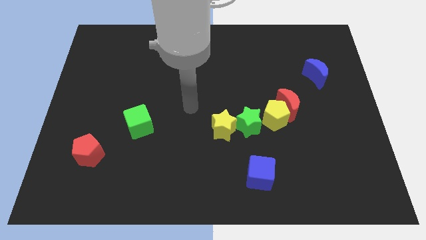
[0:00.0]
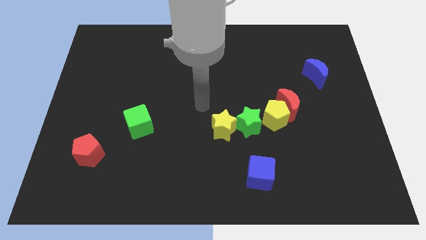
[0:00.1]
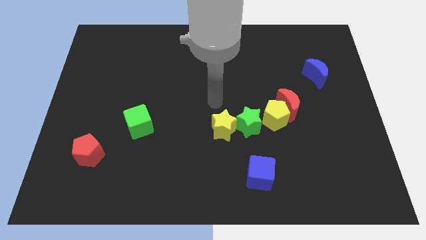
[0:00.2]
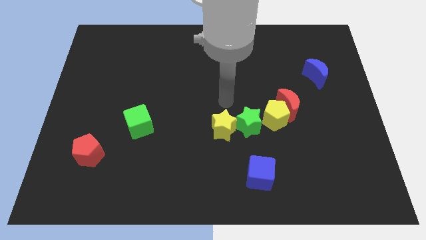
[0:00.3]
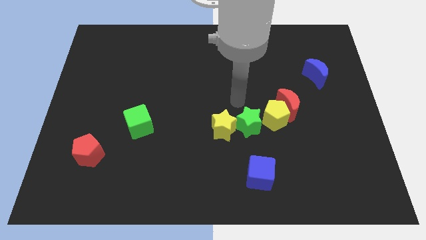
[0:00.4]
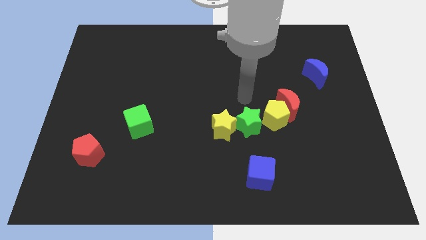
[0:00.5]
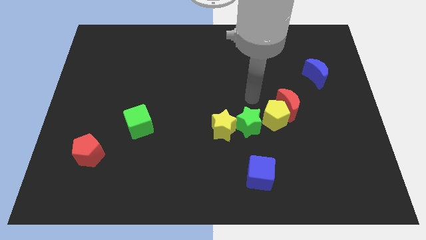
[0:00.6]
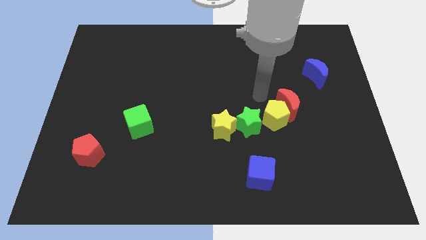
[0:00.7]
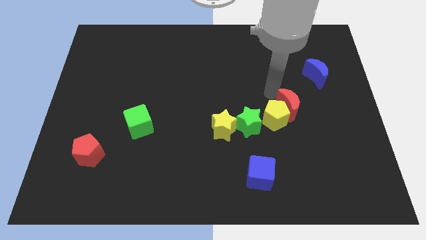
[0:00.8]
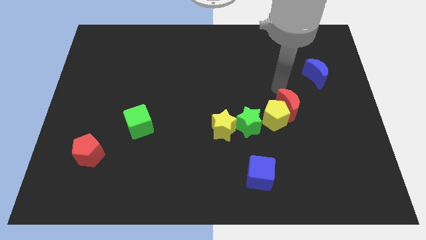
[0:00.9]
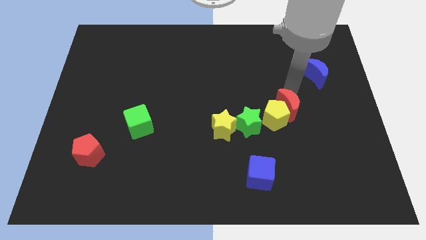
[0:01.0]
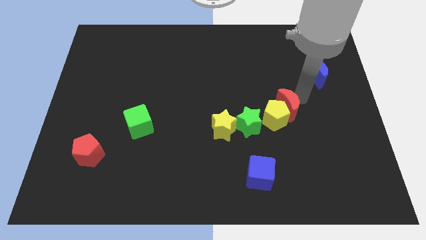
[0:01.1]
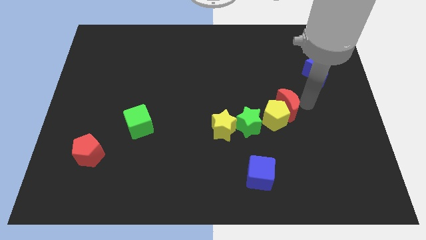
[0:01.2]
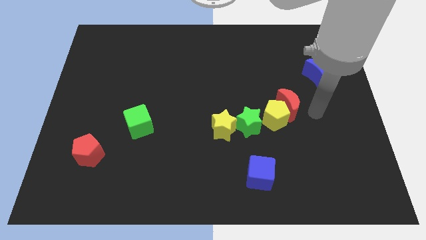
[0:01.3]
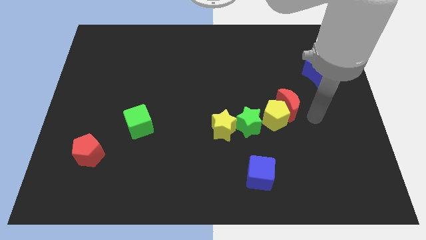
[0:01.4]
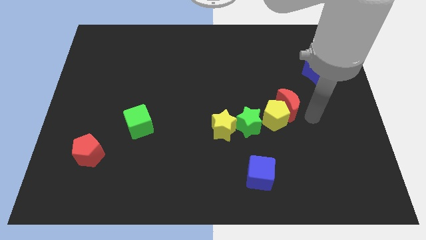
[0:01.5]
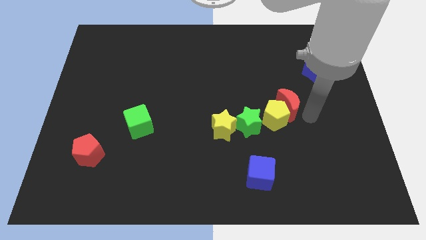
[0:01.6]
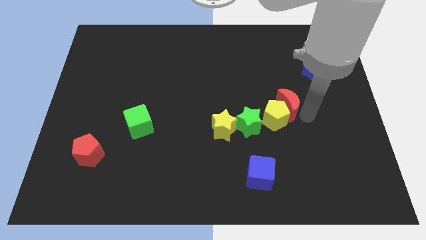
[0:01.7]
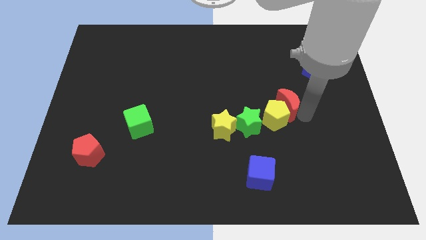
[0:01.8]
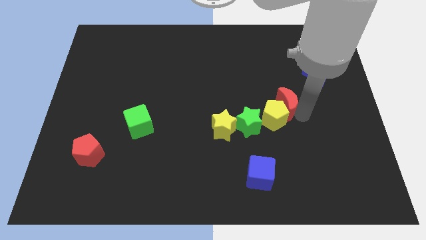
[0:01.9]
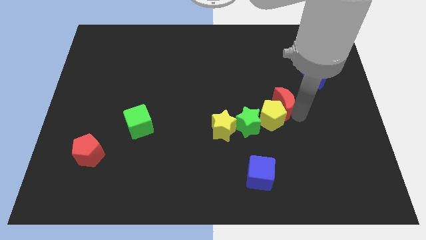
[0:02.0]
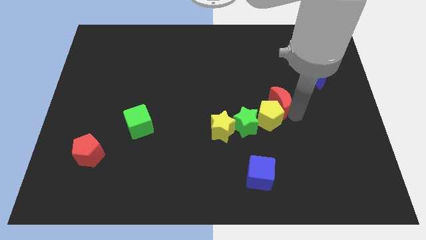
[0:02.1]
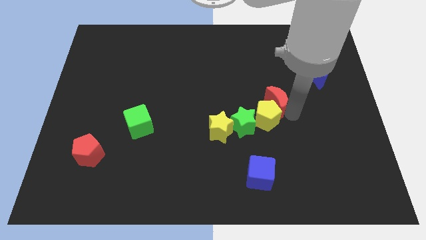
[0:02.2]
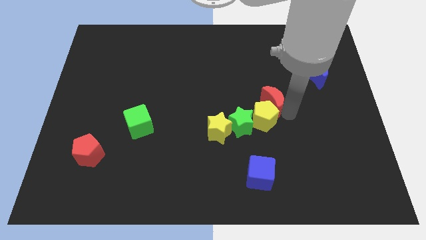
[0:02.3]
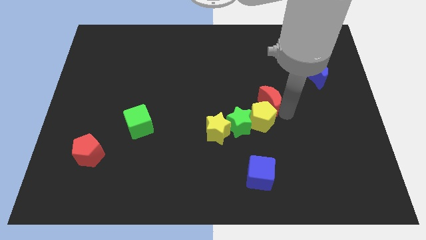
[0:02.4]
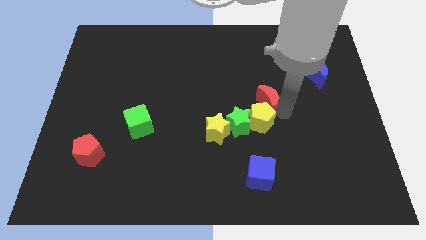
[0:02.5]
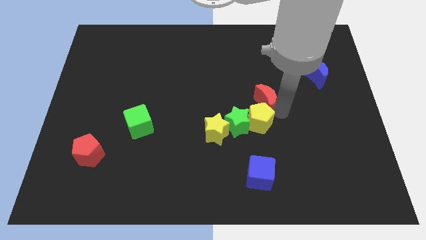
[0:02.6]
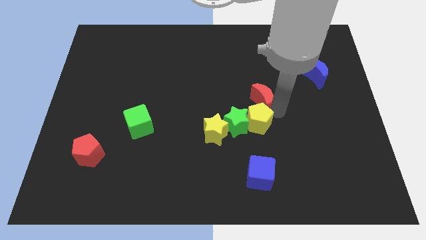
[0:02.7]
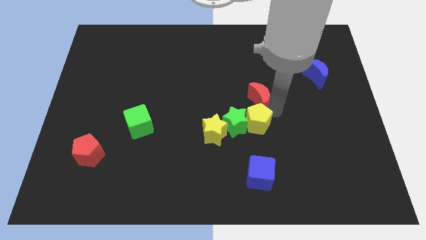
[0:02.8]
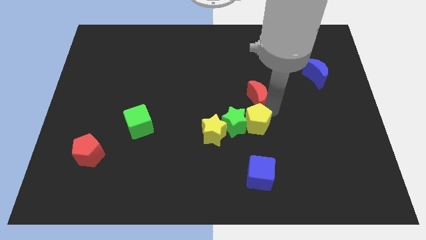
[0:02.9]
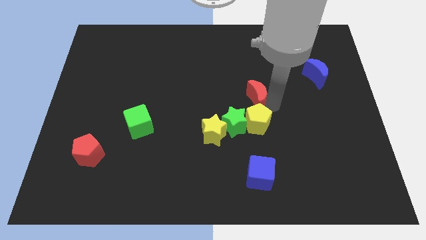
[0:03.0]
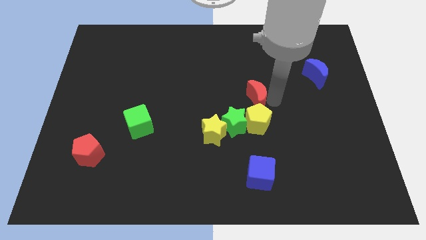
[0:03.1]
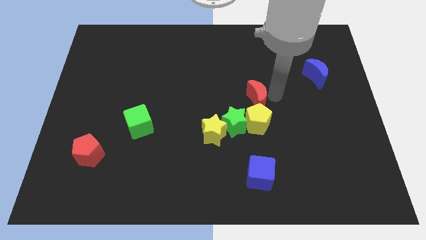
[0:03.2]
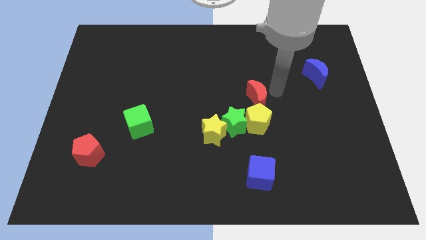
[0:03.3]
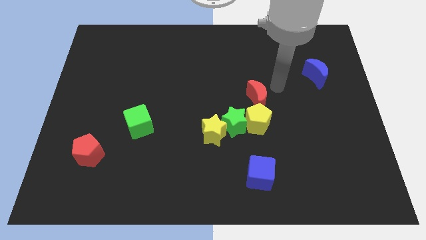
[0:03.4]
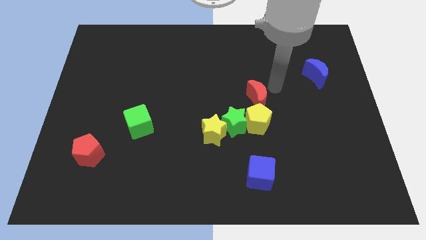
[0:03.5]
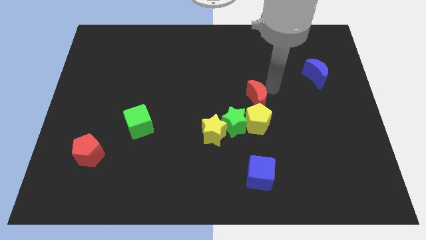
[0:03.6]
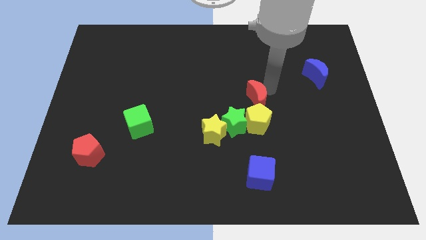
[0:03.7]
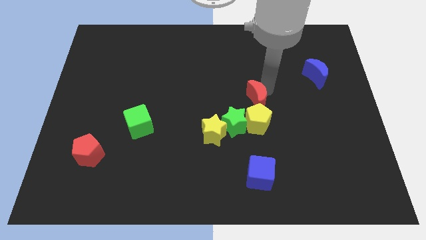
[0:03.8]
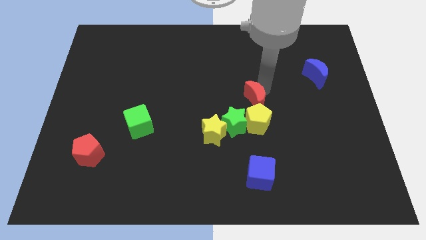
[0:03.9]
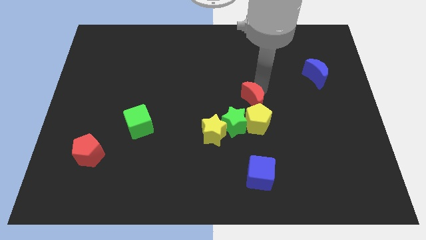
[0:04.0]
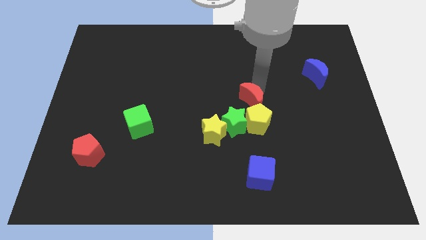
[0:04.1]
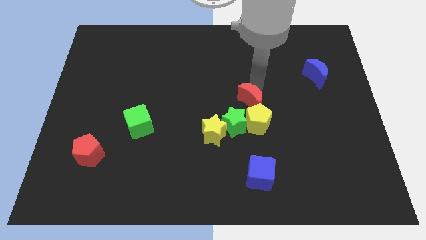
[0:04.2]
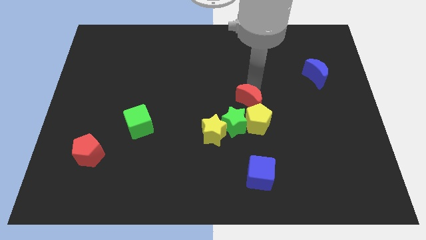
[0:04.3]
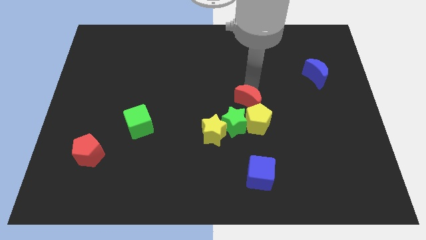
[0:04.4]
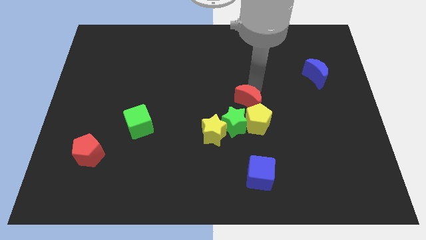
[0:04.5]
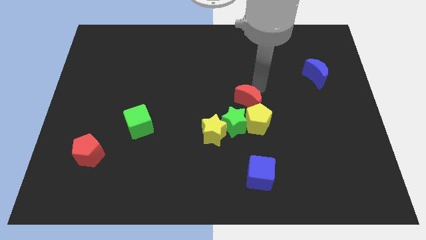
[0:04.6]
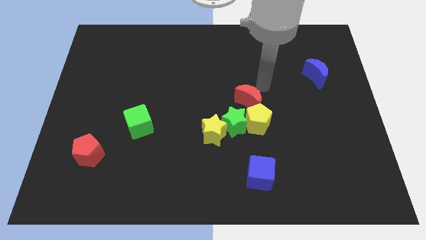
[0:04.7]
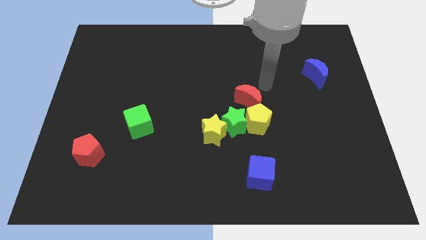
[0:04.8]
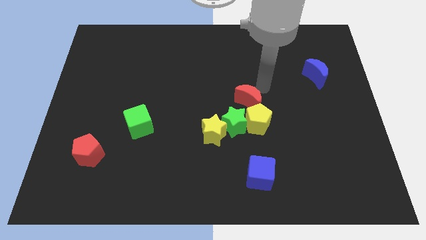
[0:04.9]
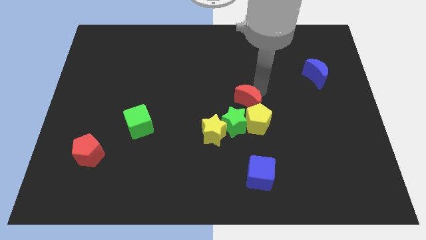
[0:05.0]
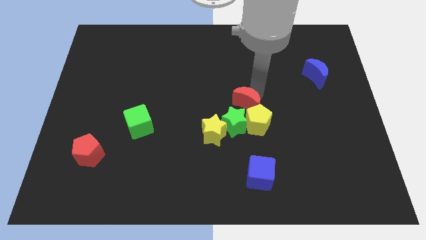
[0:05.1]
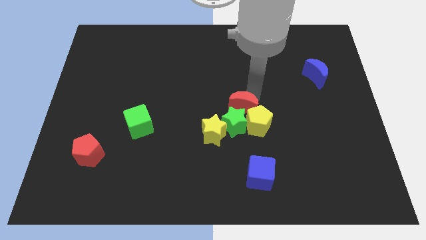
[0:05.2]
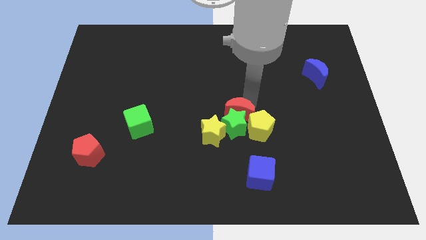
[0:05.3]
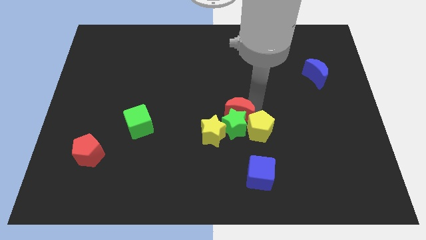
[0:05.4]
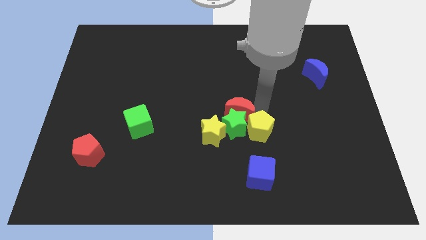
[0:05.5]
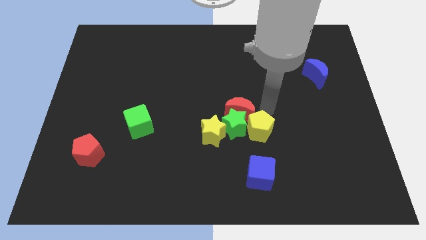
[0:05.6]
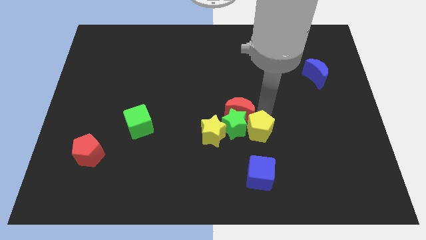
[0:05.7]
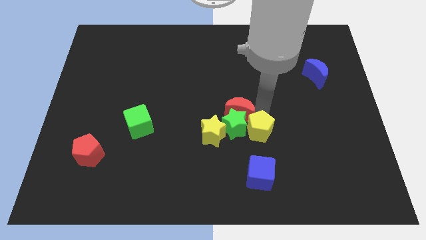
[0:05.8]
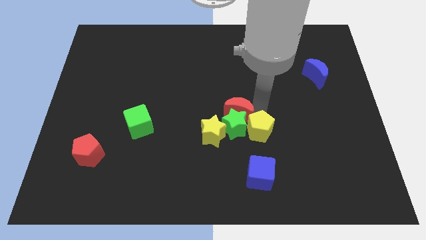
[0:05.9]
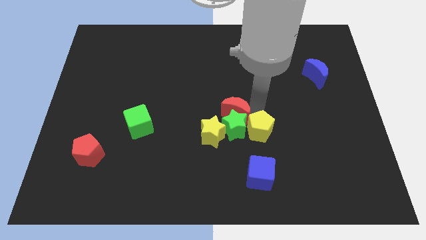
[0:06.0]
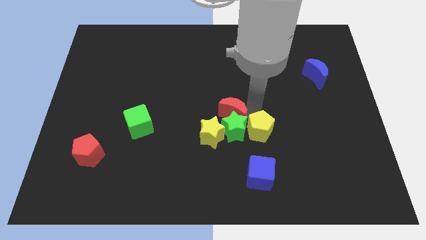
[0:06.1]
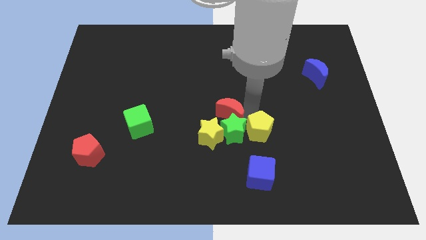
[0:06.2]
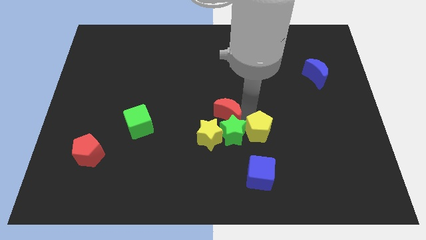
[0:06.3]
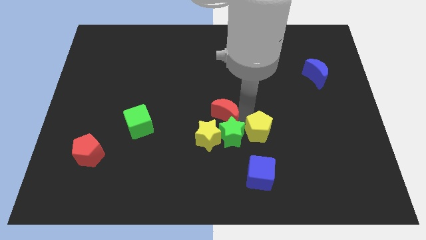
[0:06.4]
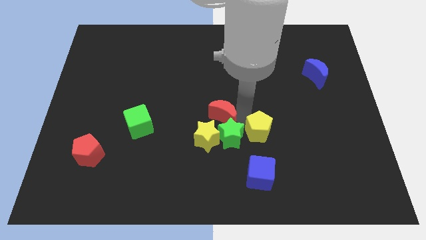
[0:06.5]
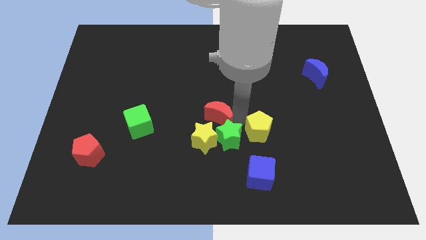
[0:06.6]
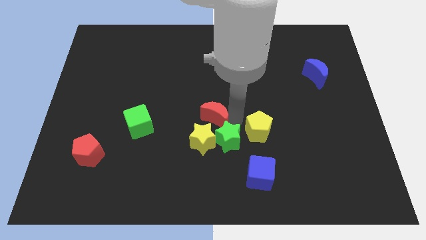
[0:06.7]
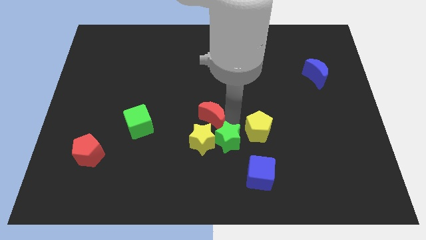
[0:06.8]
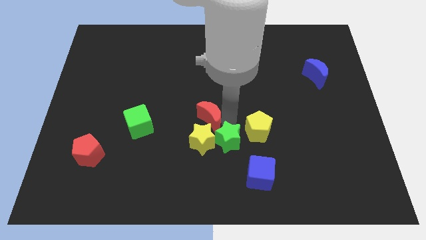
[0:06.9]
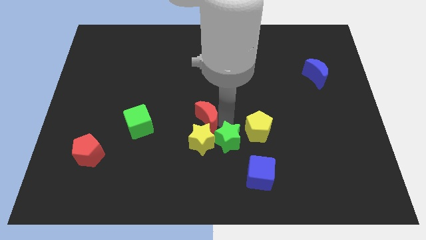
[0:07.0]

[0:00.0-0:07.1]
slide the red moon to the right of the green cube
